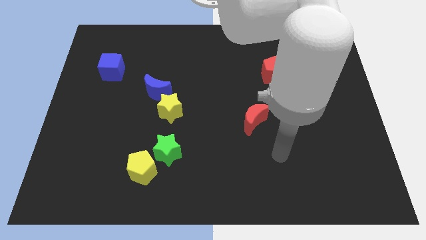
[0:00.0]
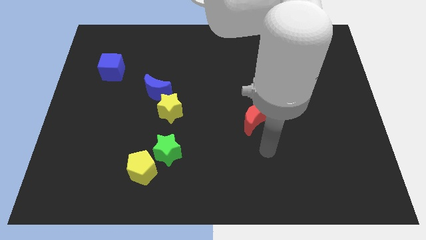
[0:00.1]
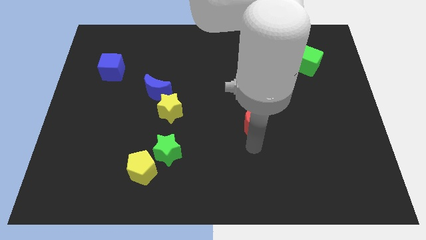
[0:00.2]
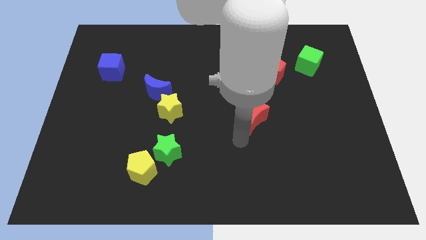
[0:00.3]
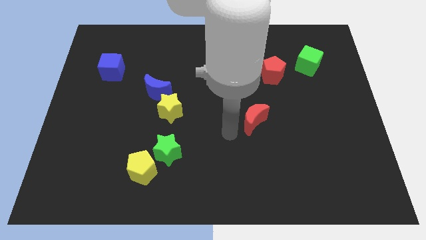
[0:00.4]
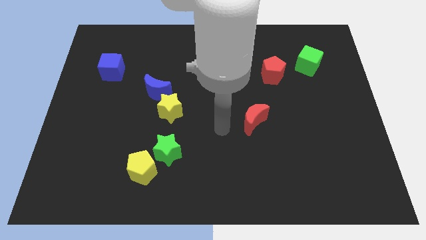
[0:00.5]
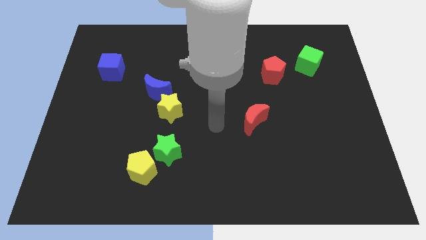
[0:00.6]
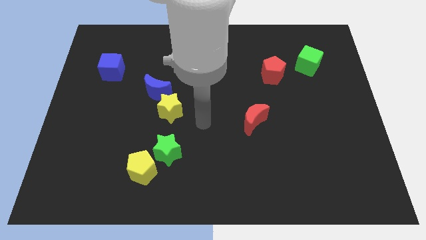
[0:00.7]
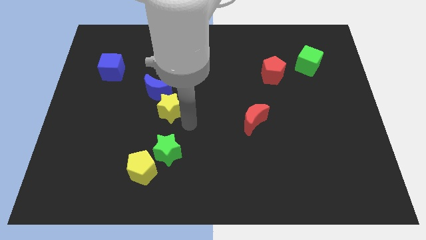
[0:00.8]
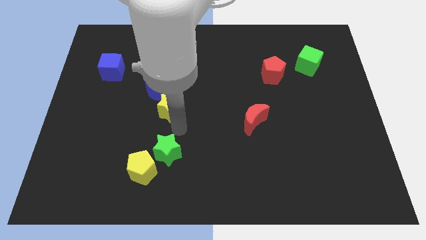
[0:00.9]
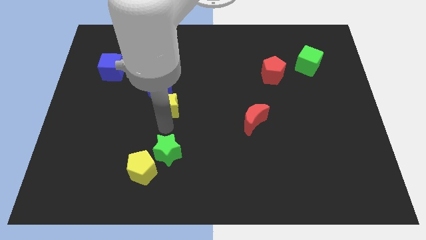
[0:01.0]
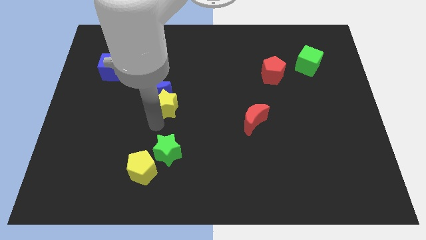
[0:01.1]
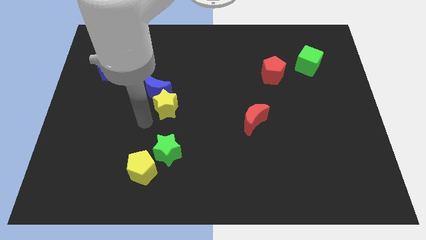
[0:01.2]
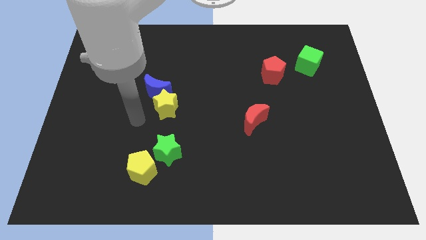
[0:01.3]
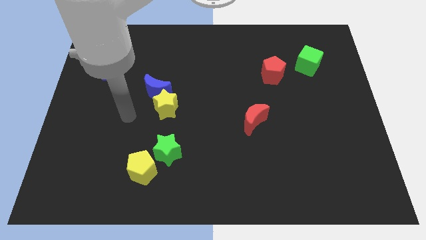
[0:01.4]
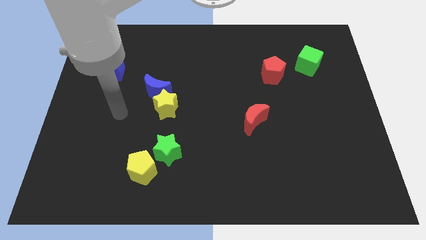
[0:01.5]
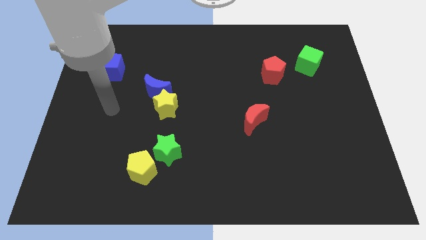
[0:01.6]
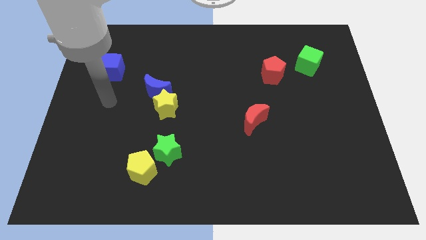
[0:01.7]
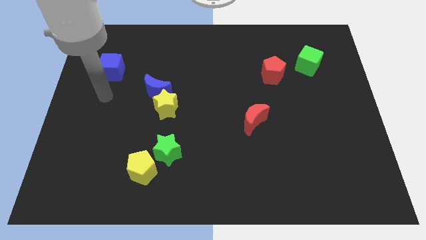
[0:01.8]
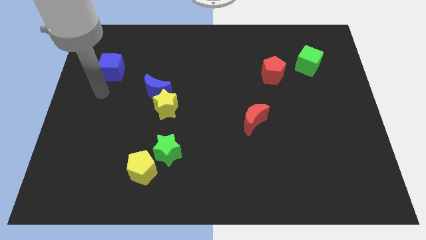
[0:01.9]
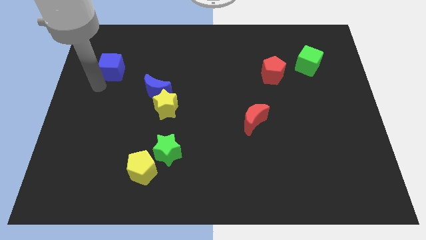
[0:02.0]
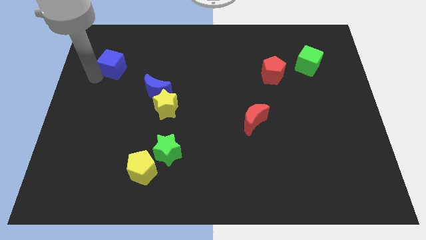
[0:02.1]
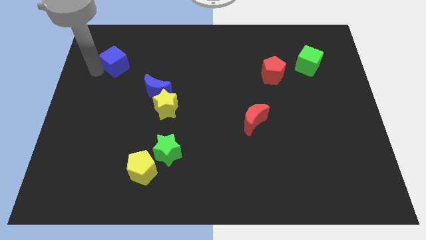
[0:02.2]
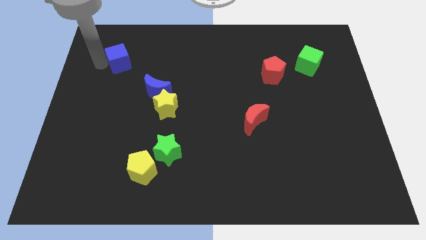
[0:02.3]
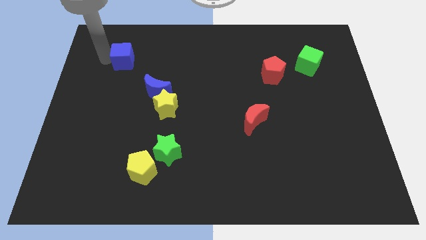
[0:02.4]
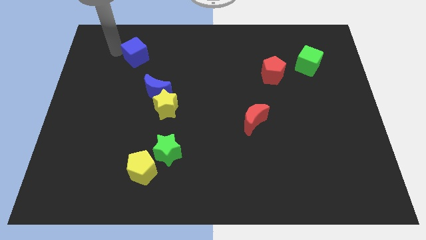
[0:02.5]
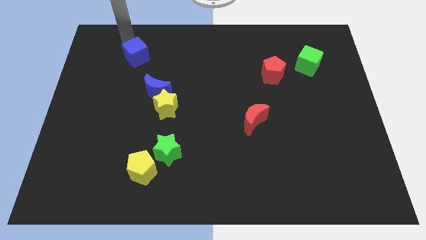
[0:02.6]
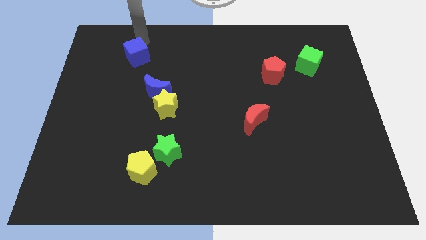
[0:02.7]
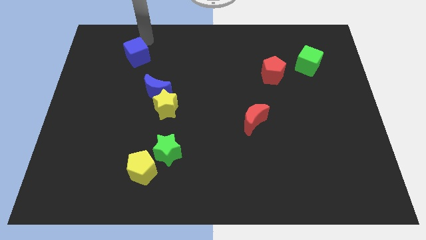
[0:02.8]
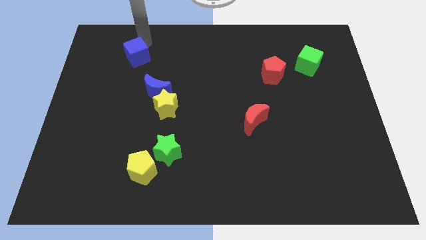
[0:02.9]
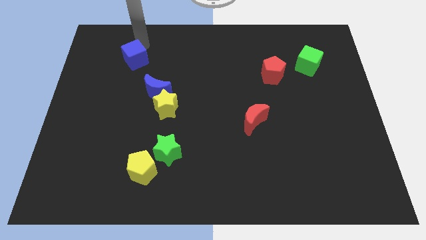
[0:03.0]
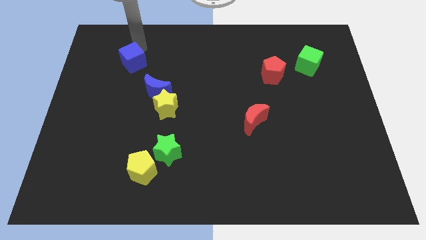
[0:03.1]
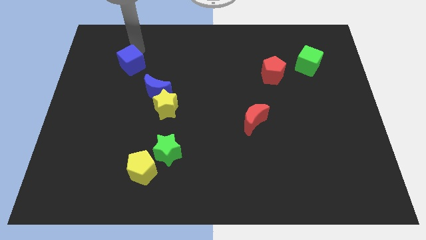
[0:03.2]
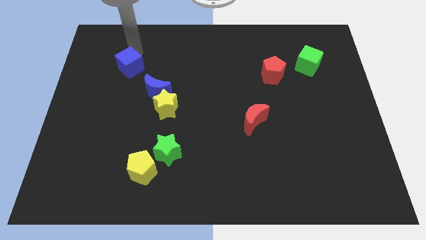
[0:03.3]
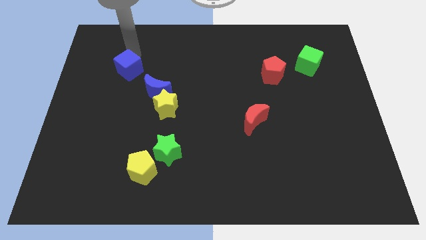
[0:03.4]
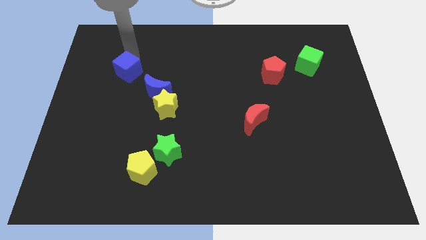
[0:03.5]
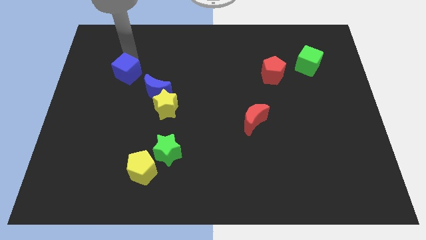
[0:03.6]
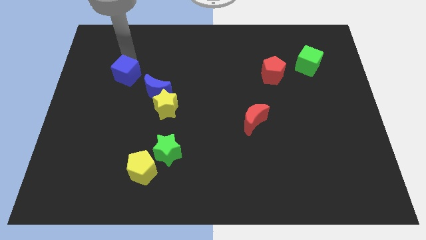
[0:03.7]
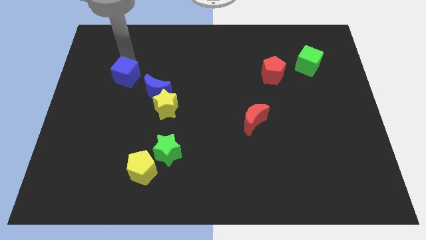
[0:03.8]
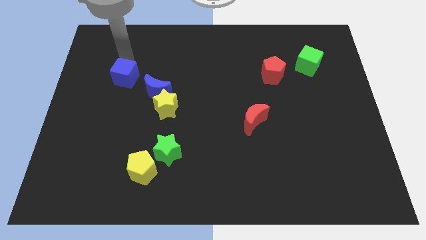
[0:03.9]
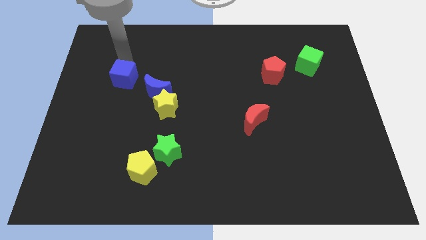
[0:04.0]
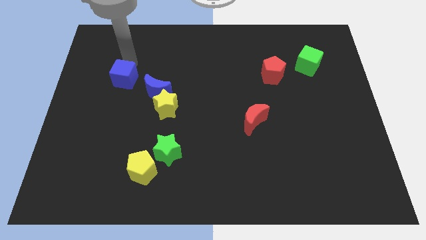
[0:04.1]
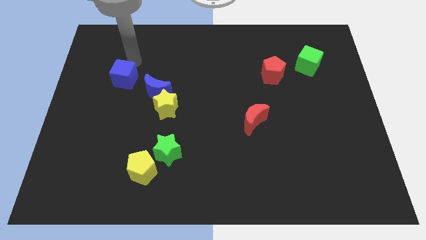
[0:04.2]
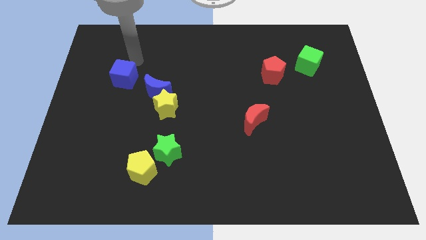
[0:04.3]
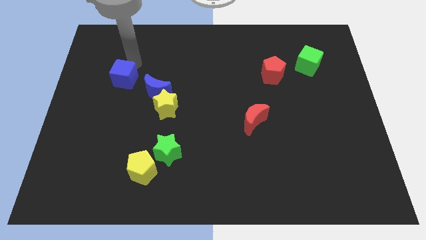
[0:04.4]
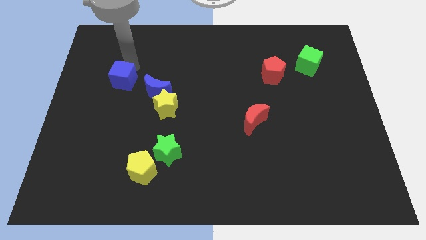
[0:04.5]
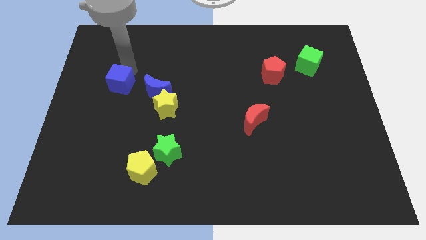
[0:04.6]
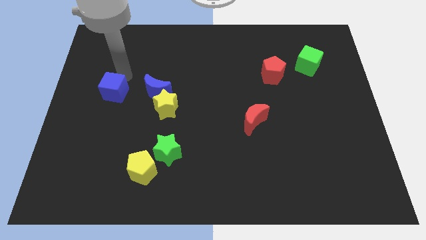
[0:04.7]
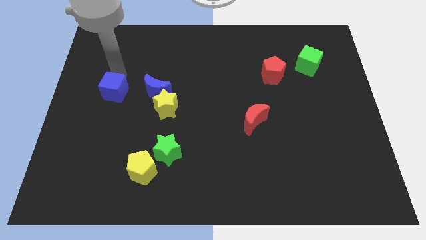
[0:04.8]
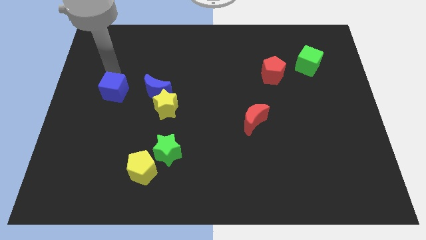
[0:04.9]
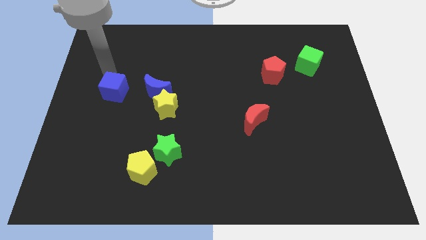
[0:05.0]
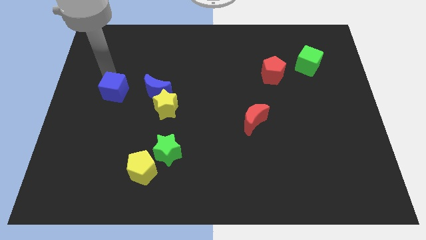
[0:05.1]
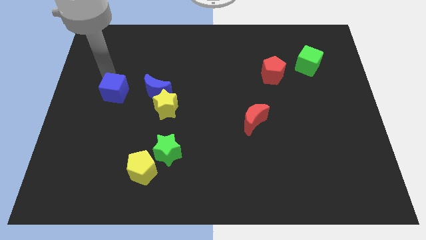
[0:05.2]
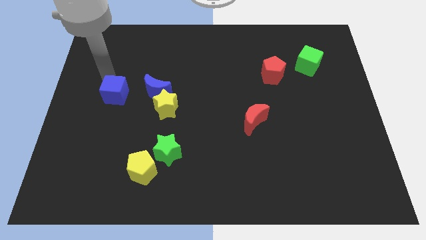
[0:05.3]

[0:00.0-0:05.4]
push the blue cube to the left side of the yellow star

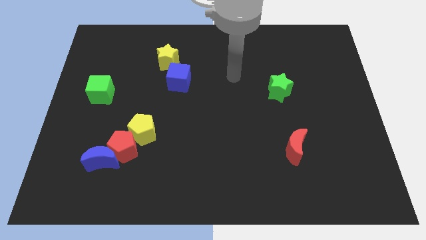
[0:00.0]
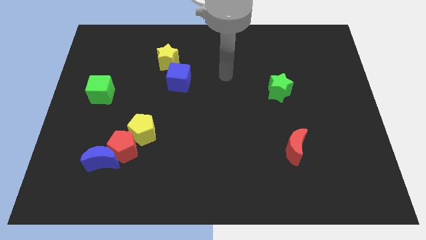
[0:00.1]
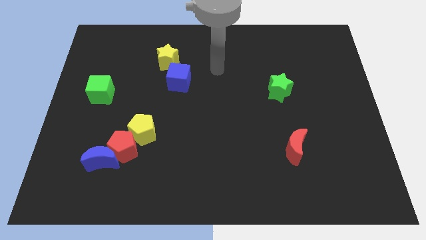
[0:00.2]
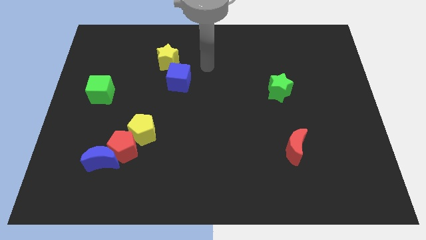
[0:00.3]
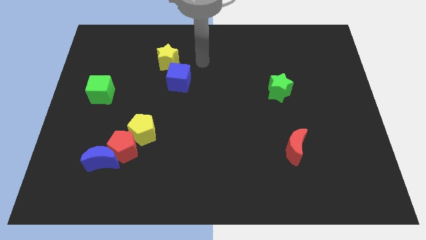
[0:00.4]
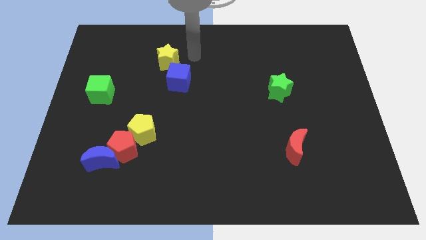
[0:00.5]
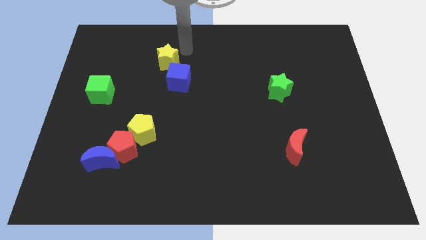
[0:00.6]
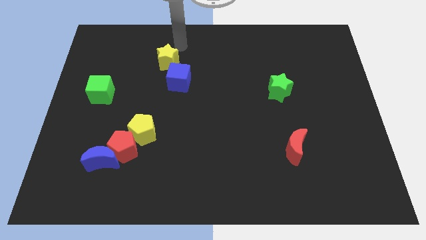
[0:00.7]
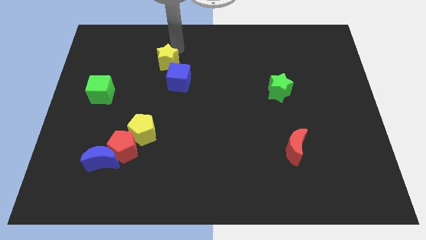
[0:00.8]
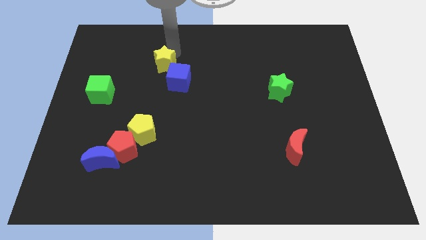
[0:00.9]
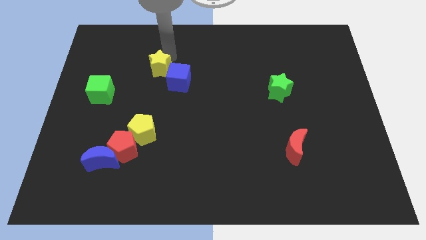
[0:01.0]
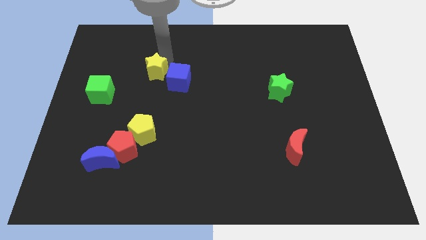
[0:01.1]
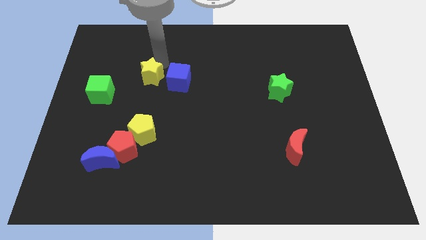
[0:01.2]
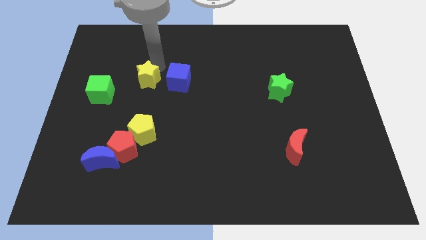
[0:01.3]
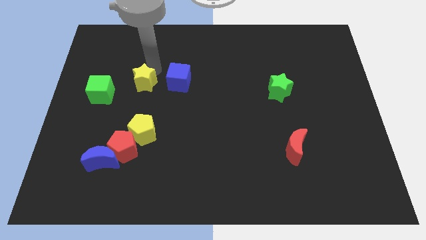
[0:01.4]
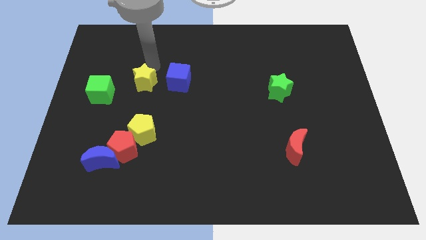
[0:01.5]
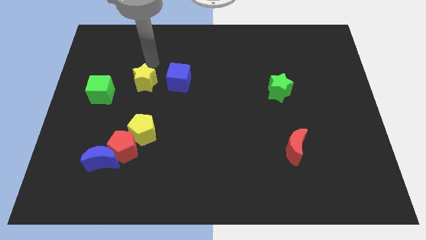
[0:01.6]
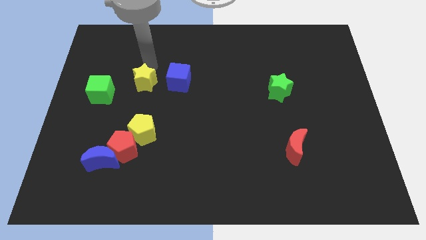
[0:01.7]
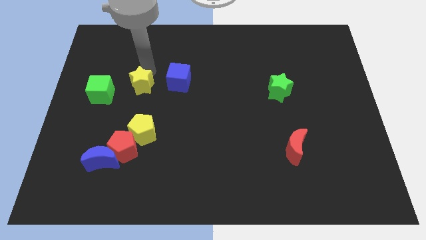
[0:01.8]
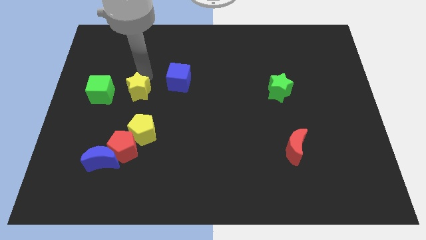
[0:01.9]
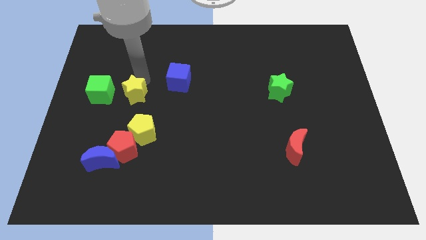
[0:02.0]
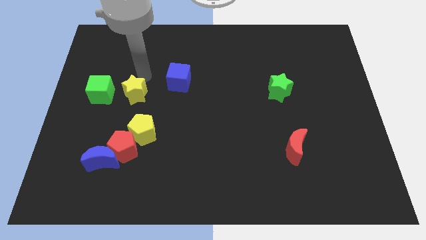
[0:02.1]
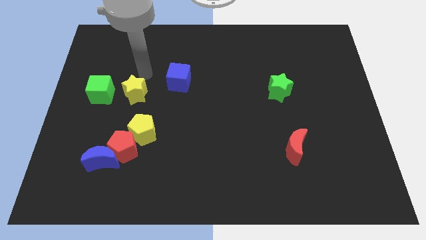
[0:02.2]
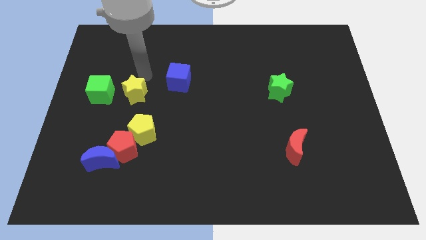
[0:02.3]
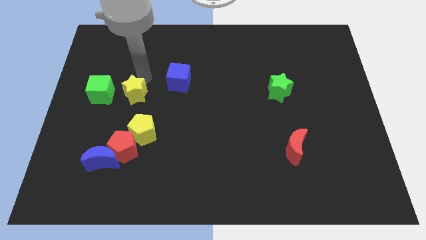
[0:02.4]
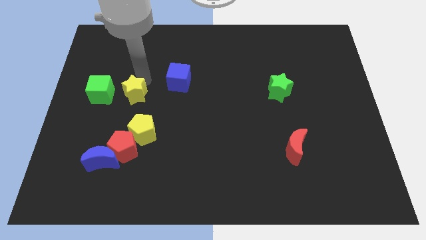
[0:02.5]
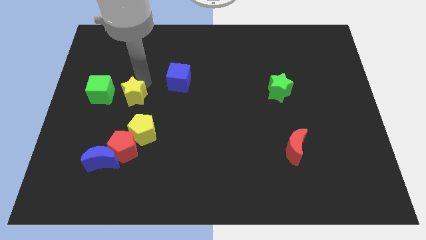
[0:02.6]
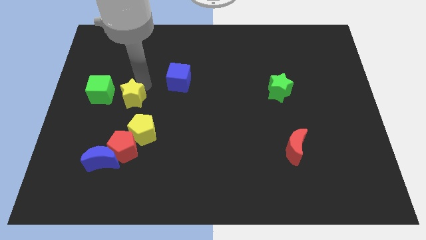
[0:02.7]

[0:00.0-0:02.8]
slide the yellow star to the top left of the yellow pentagon
